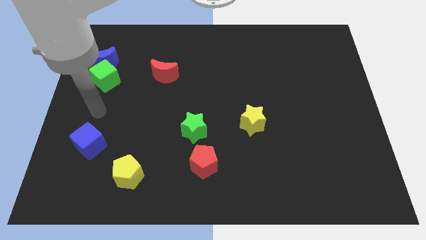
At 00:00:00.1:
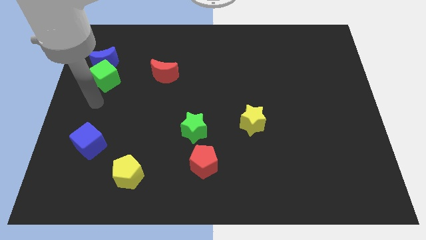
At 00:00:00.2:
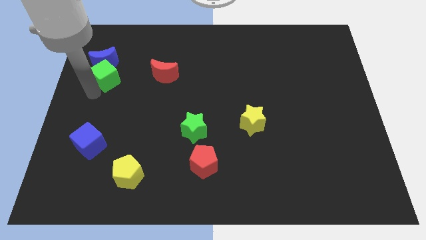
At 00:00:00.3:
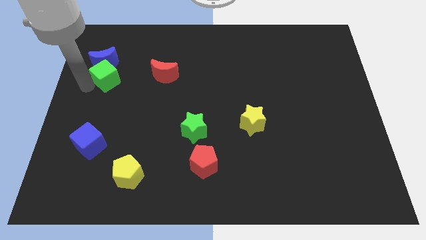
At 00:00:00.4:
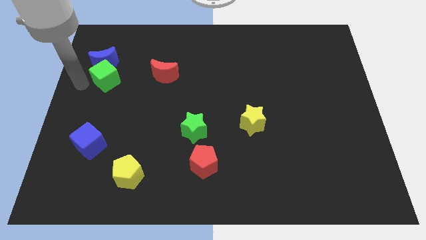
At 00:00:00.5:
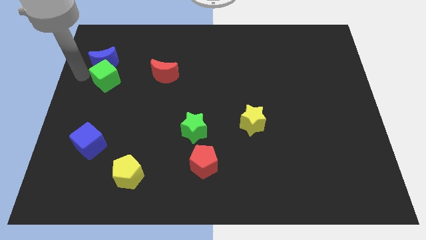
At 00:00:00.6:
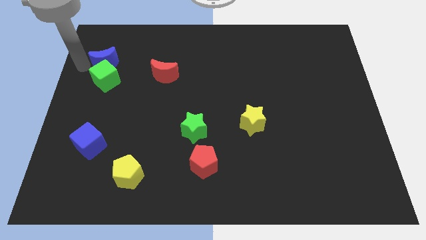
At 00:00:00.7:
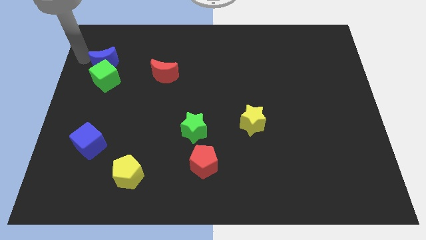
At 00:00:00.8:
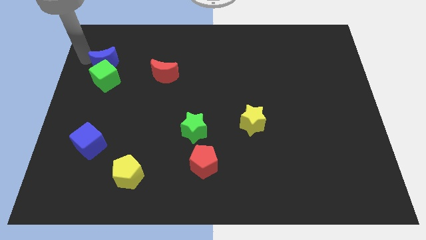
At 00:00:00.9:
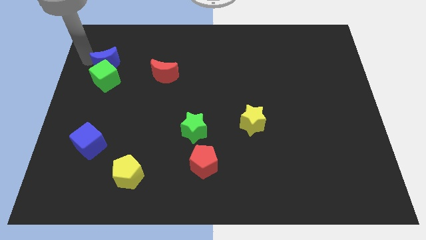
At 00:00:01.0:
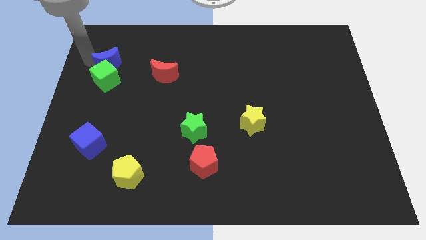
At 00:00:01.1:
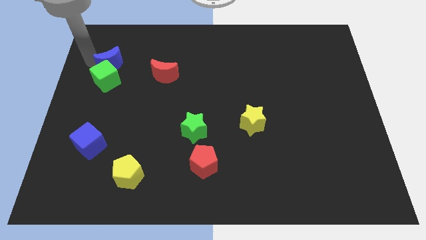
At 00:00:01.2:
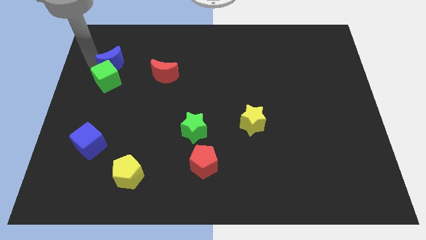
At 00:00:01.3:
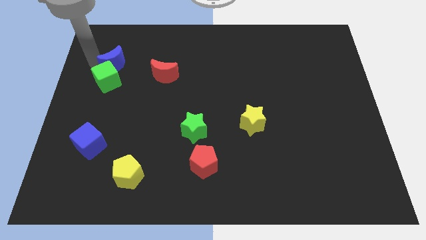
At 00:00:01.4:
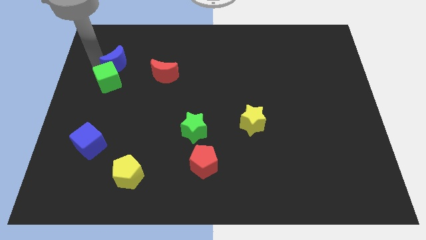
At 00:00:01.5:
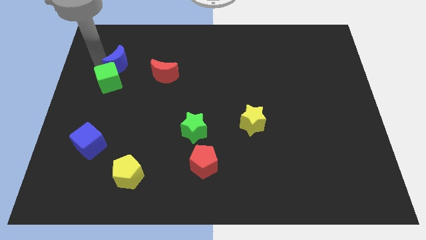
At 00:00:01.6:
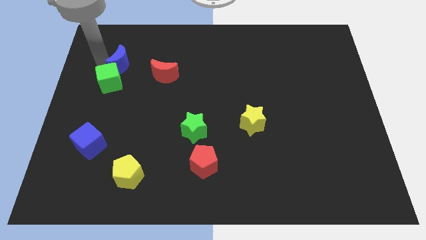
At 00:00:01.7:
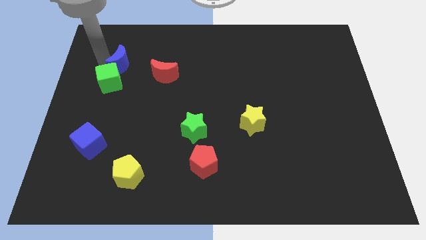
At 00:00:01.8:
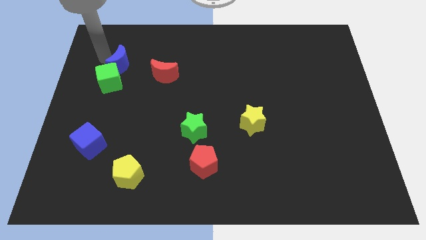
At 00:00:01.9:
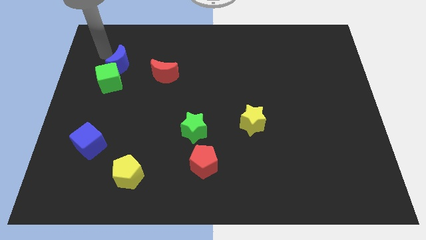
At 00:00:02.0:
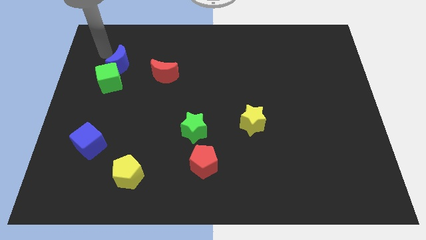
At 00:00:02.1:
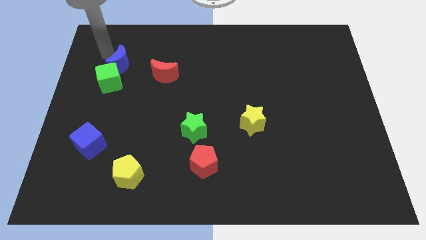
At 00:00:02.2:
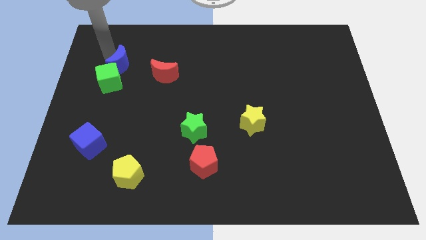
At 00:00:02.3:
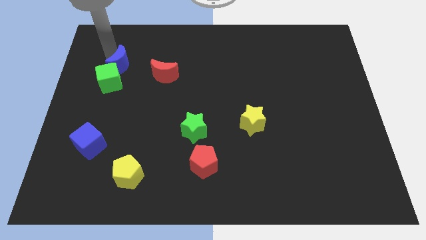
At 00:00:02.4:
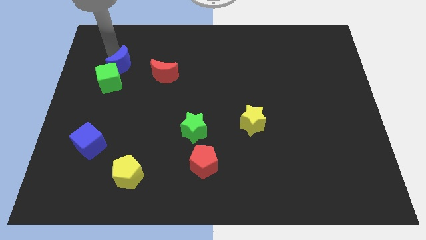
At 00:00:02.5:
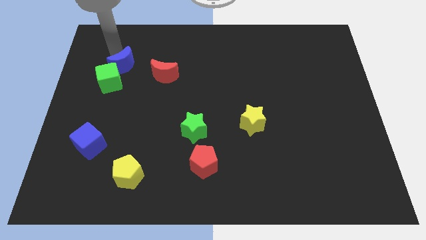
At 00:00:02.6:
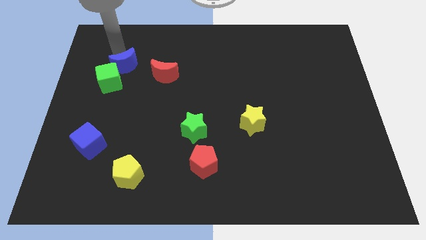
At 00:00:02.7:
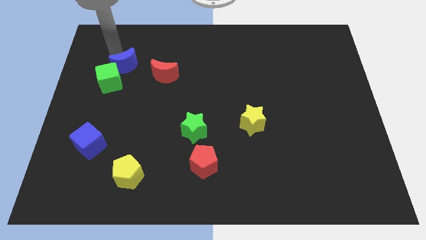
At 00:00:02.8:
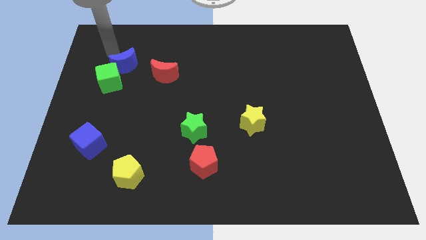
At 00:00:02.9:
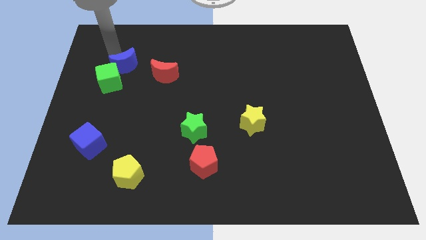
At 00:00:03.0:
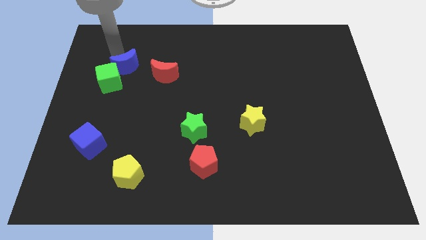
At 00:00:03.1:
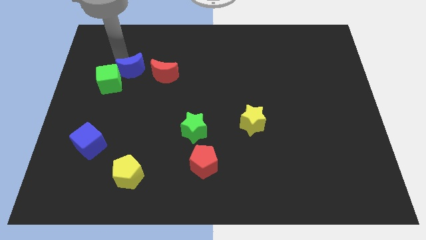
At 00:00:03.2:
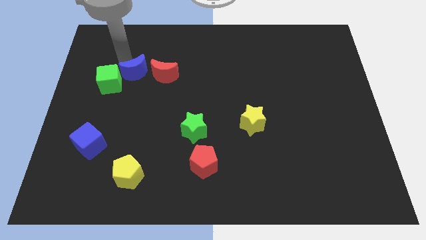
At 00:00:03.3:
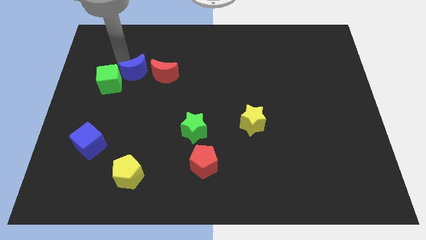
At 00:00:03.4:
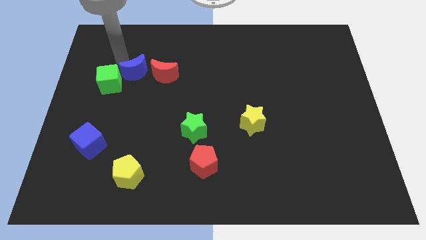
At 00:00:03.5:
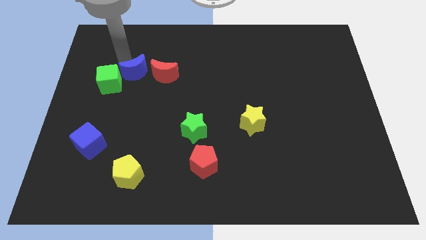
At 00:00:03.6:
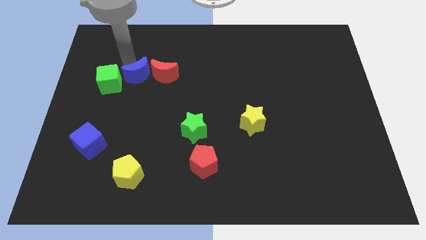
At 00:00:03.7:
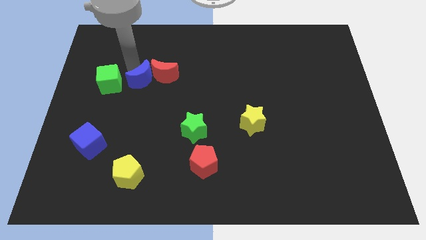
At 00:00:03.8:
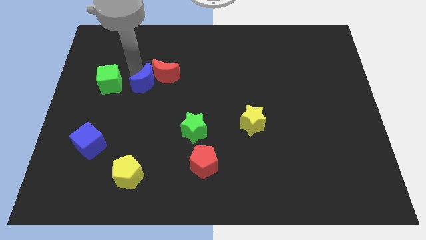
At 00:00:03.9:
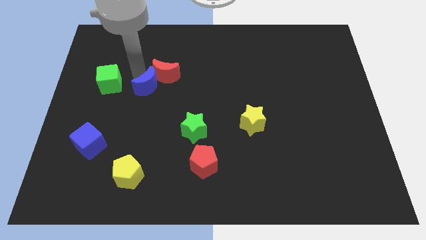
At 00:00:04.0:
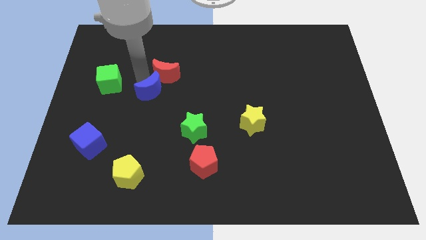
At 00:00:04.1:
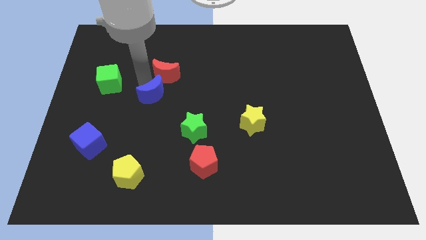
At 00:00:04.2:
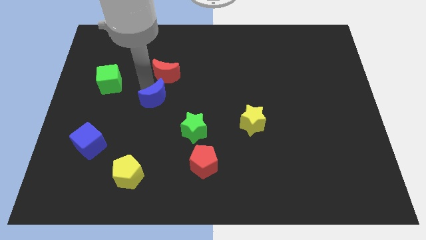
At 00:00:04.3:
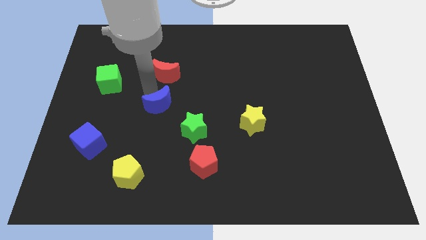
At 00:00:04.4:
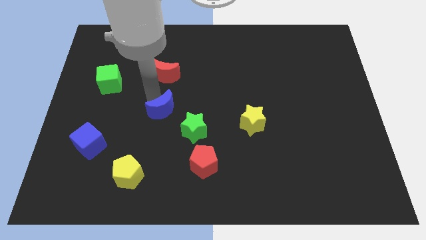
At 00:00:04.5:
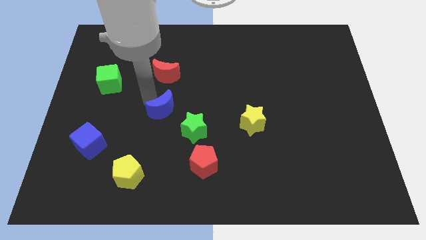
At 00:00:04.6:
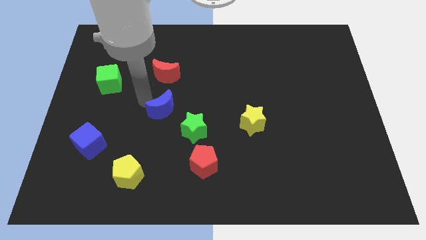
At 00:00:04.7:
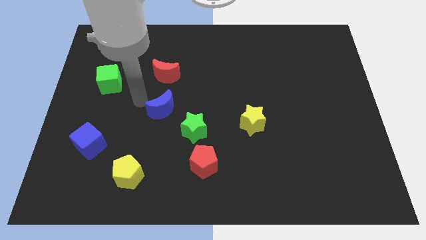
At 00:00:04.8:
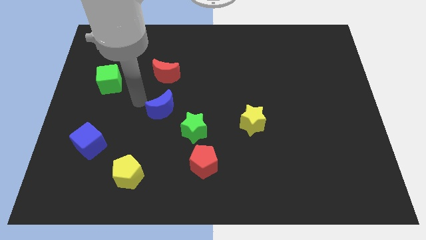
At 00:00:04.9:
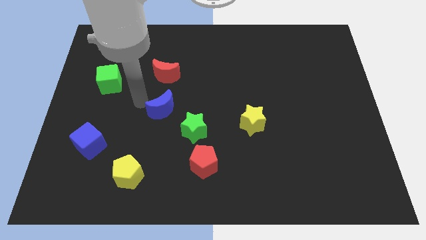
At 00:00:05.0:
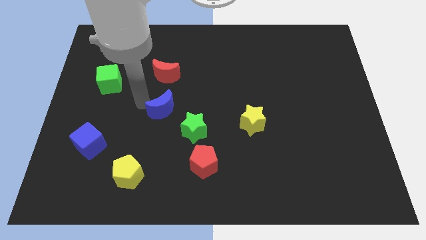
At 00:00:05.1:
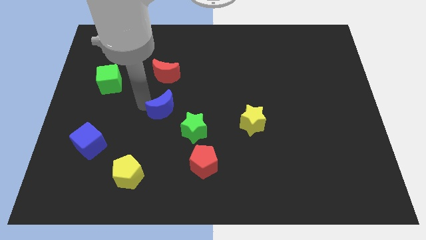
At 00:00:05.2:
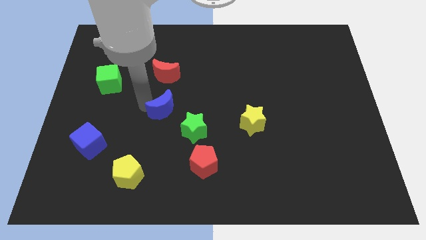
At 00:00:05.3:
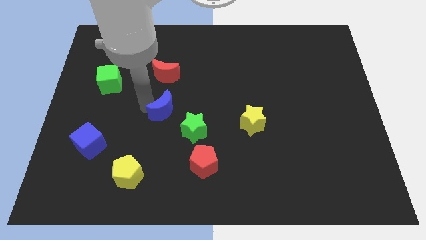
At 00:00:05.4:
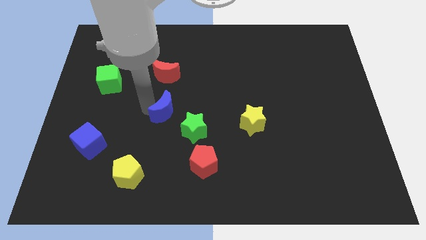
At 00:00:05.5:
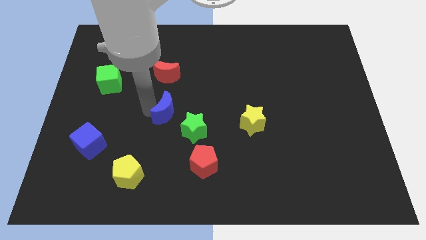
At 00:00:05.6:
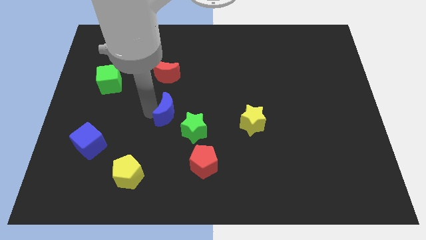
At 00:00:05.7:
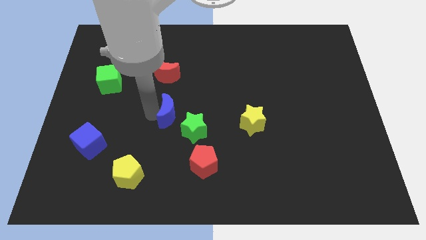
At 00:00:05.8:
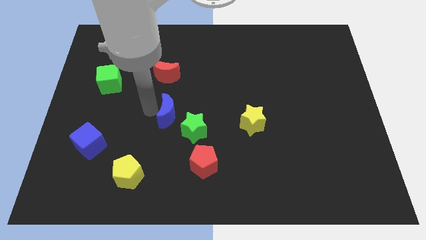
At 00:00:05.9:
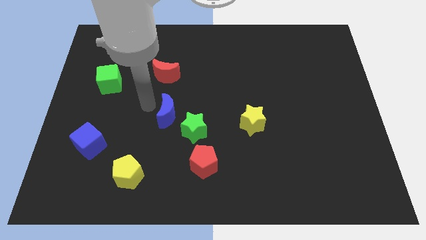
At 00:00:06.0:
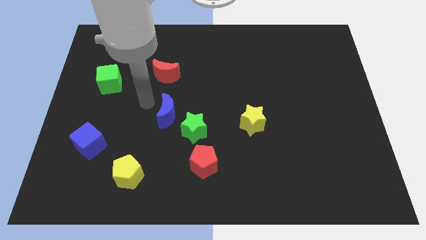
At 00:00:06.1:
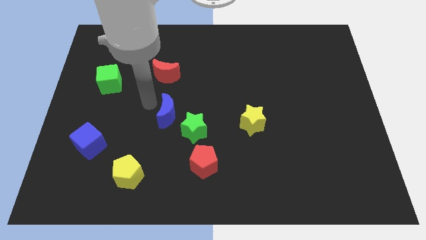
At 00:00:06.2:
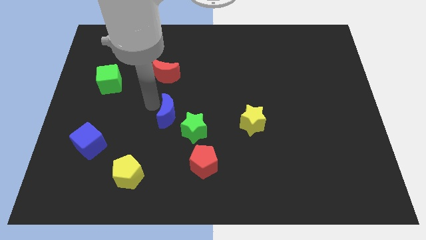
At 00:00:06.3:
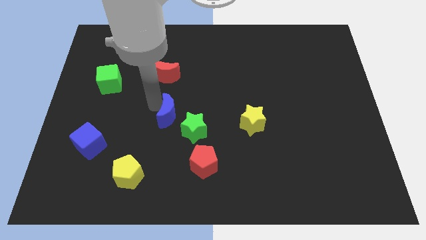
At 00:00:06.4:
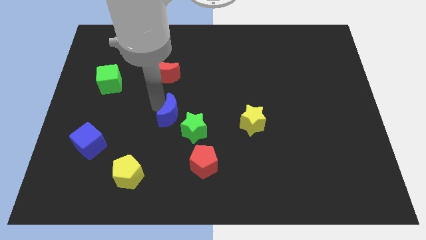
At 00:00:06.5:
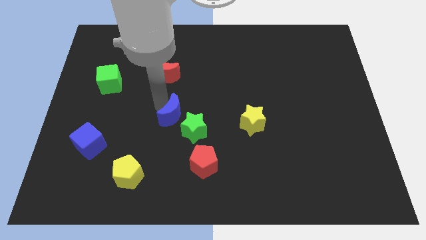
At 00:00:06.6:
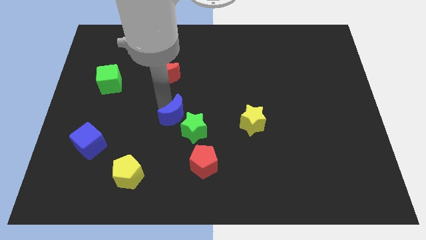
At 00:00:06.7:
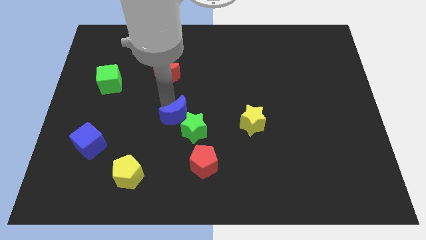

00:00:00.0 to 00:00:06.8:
move the blue moon towards the green star
